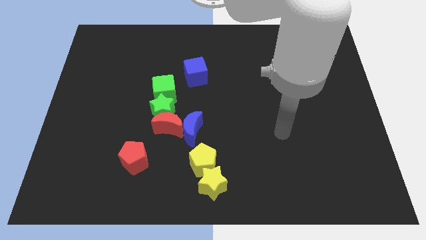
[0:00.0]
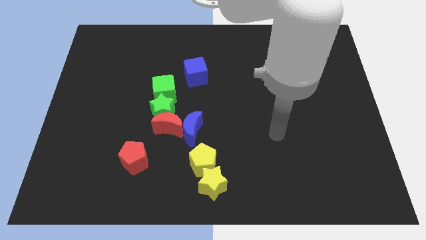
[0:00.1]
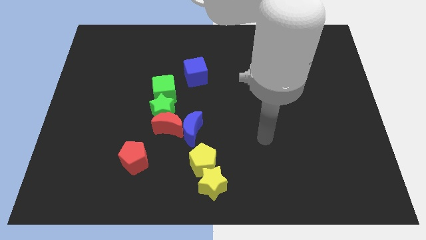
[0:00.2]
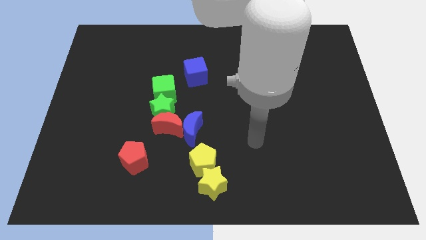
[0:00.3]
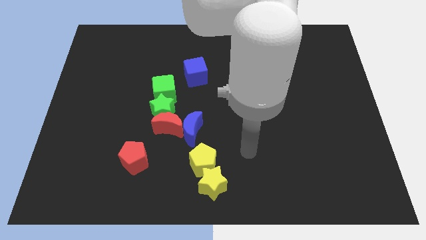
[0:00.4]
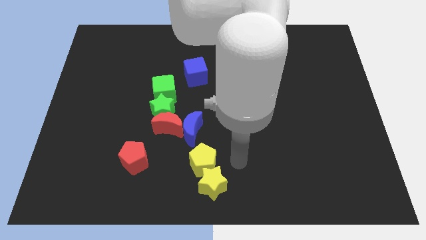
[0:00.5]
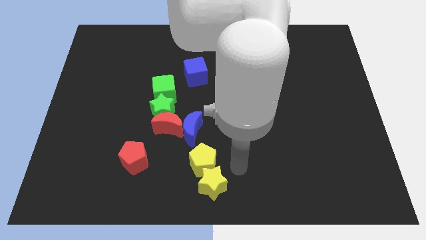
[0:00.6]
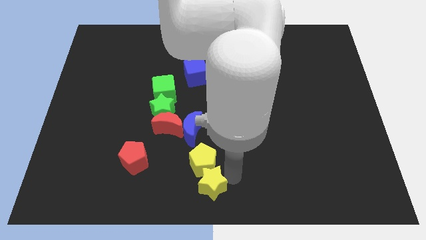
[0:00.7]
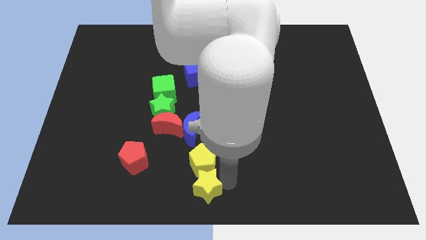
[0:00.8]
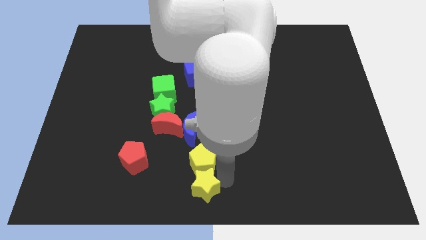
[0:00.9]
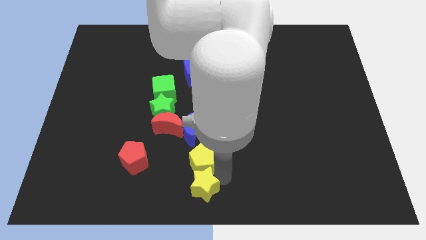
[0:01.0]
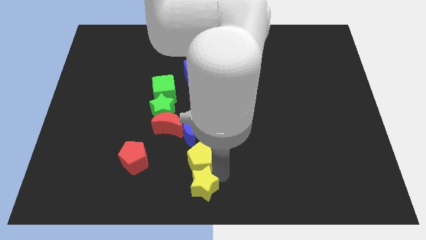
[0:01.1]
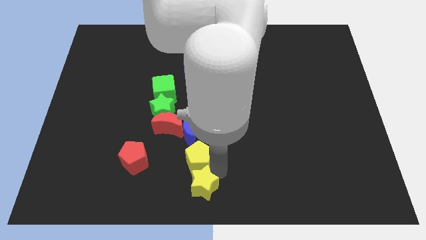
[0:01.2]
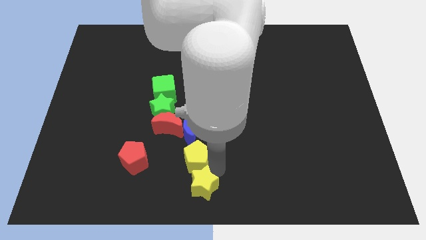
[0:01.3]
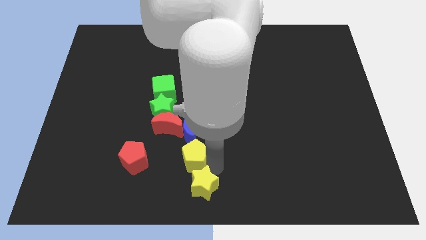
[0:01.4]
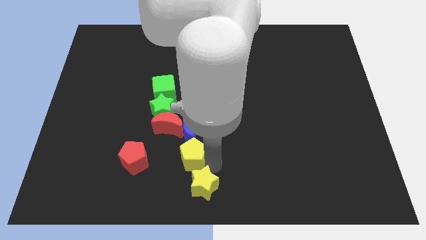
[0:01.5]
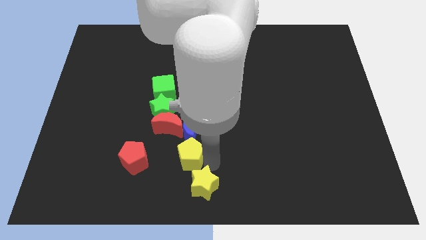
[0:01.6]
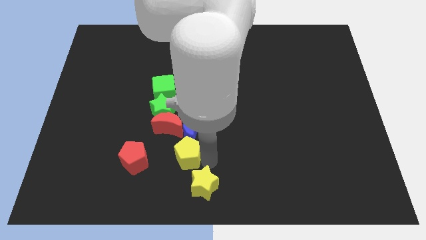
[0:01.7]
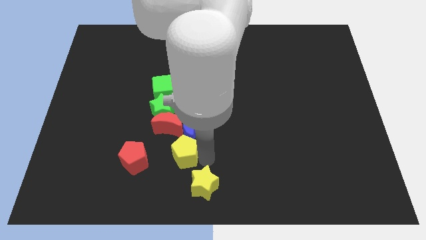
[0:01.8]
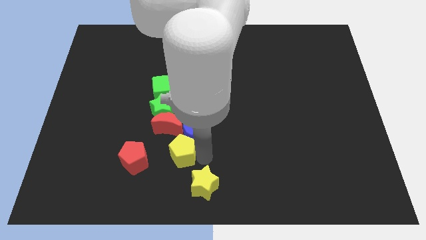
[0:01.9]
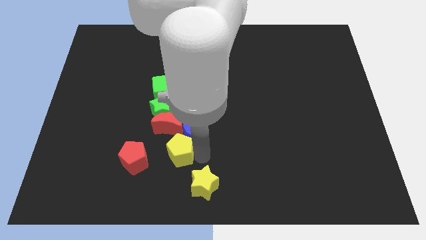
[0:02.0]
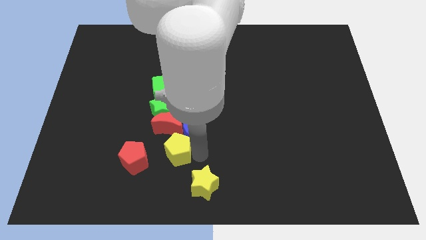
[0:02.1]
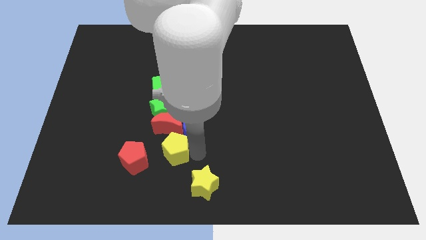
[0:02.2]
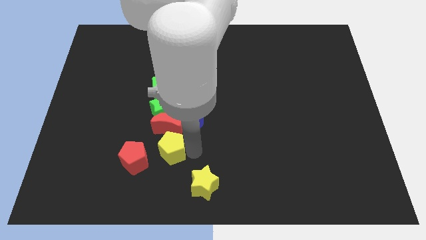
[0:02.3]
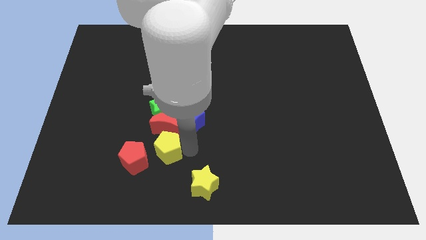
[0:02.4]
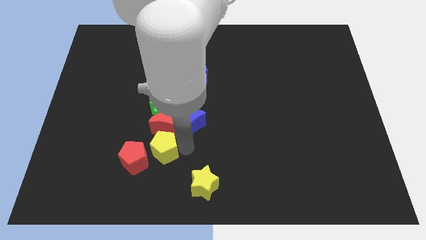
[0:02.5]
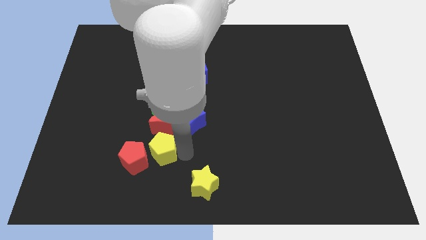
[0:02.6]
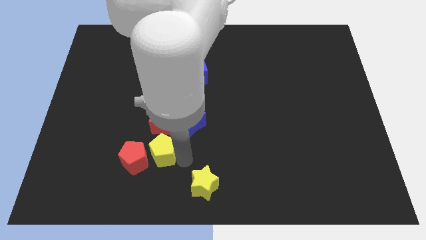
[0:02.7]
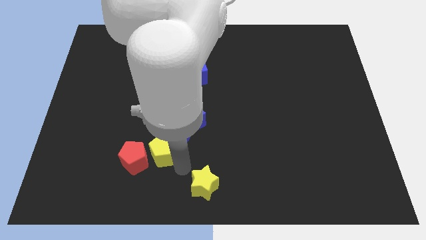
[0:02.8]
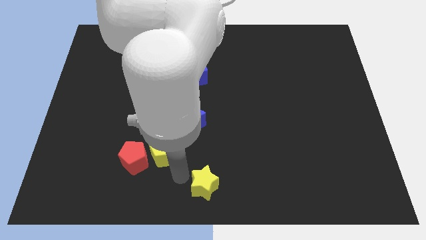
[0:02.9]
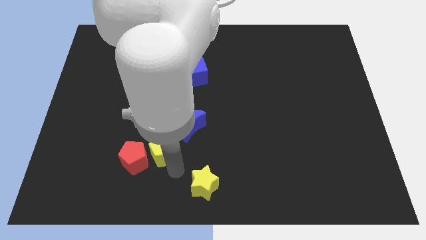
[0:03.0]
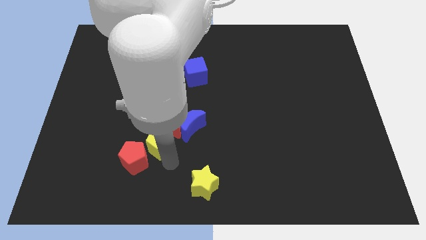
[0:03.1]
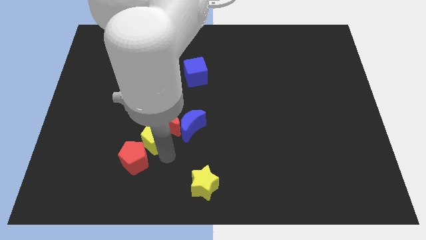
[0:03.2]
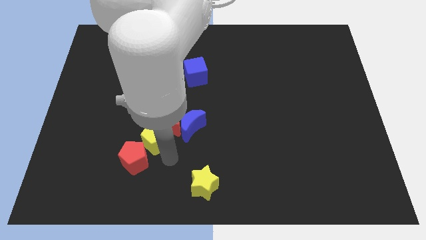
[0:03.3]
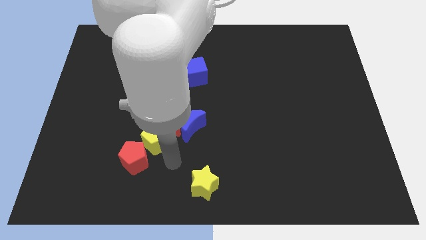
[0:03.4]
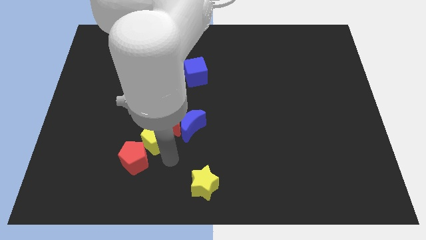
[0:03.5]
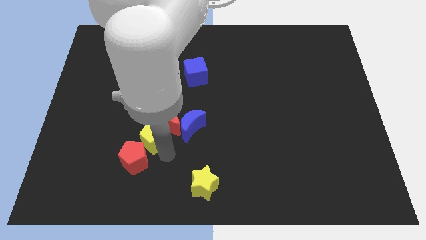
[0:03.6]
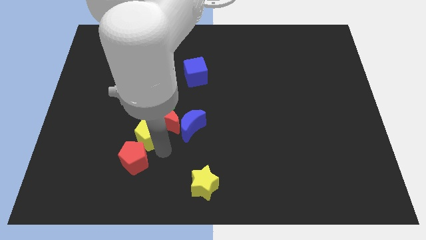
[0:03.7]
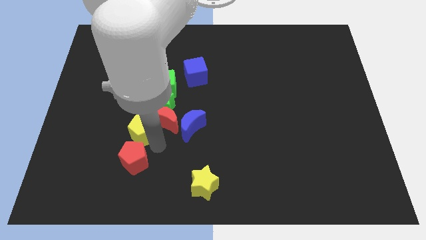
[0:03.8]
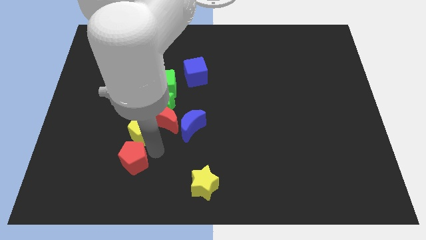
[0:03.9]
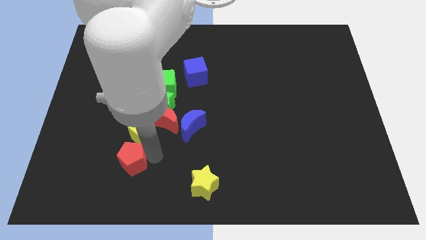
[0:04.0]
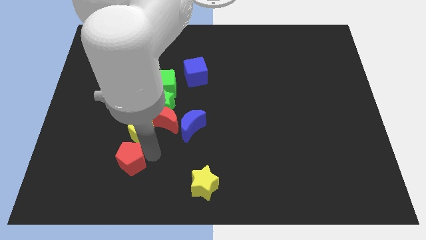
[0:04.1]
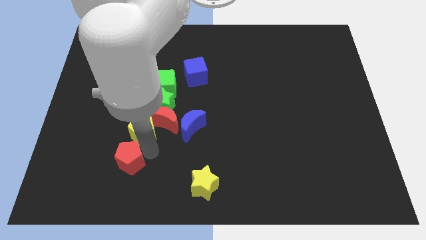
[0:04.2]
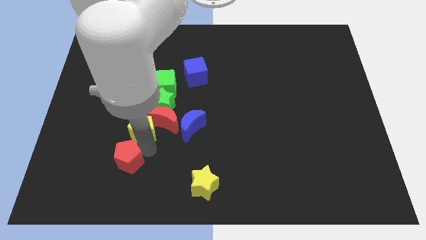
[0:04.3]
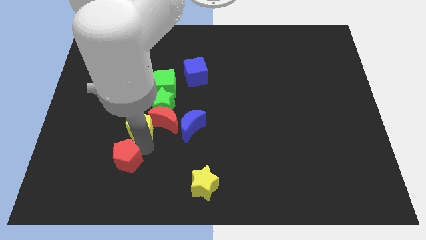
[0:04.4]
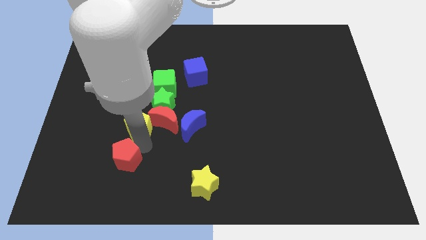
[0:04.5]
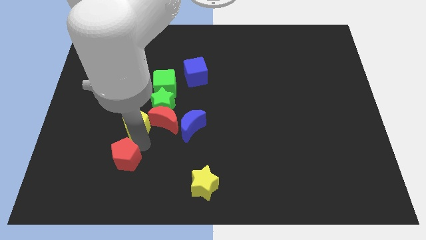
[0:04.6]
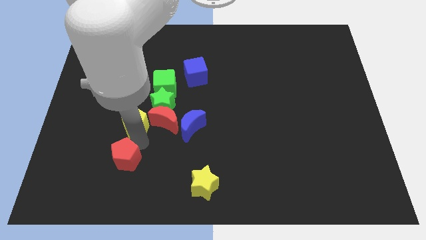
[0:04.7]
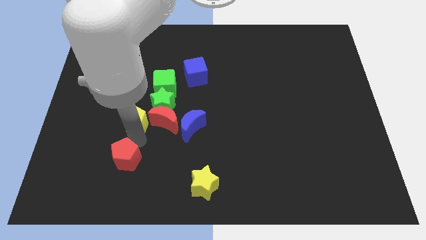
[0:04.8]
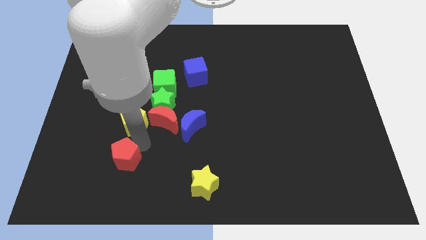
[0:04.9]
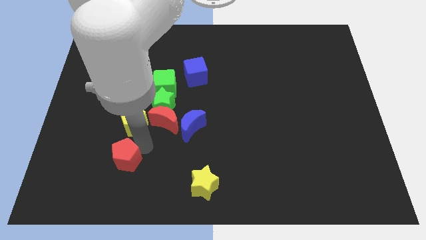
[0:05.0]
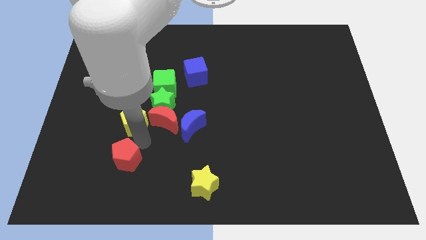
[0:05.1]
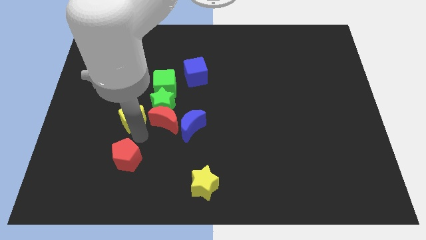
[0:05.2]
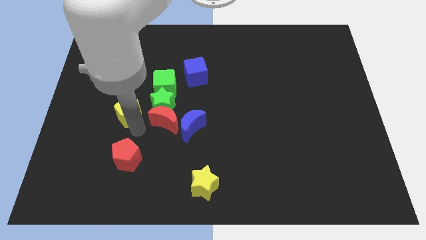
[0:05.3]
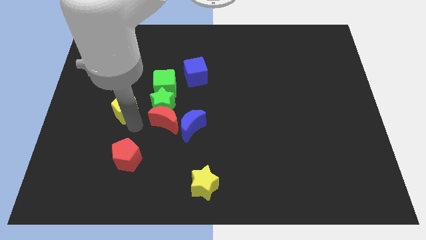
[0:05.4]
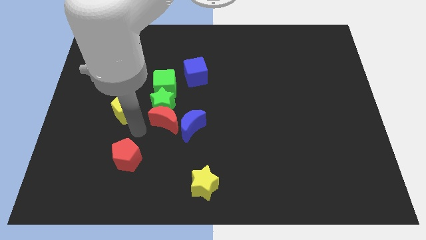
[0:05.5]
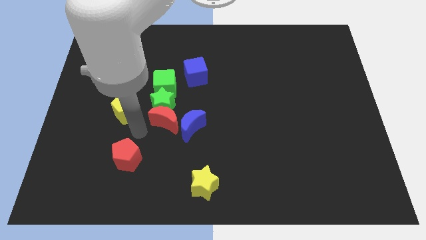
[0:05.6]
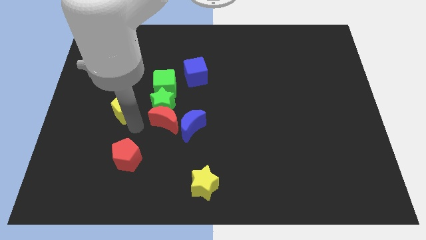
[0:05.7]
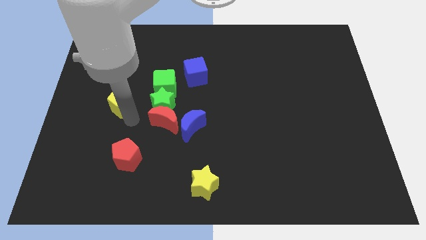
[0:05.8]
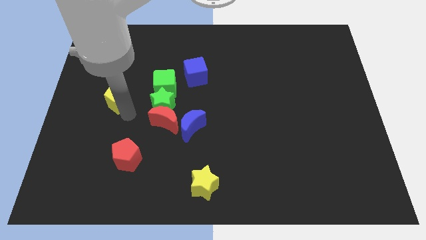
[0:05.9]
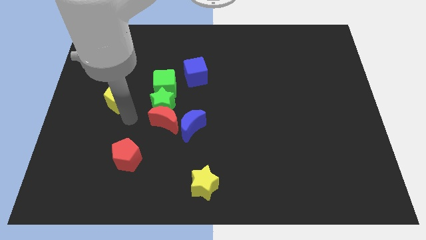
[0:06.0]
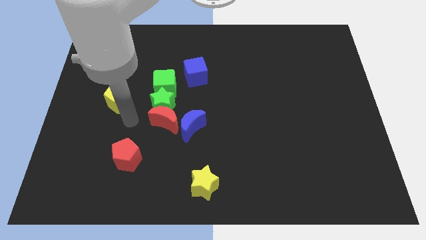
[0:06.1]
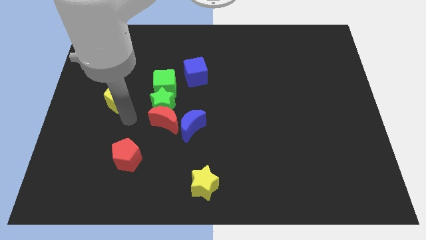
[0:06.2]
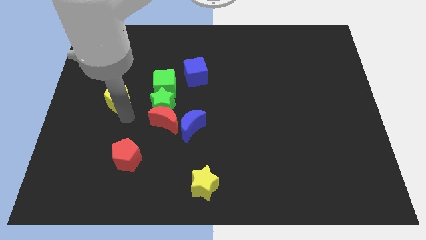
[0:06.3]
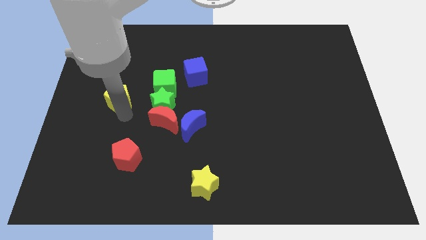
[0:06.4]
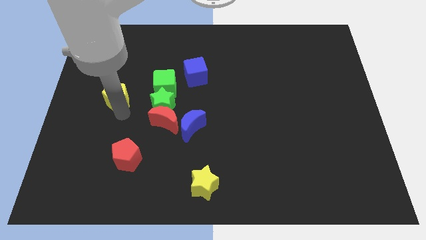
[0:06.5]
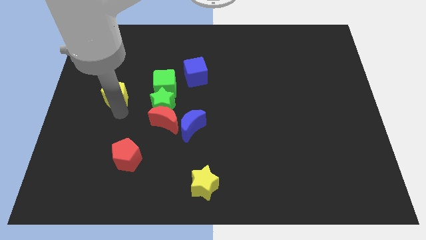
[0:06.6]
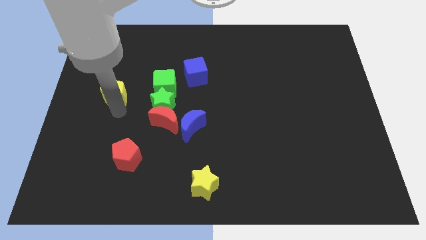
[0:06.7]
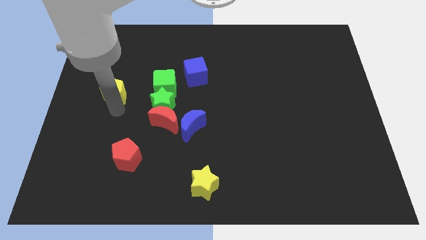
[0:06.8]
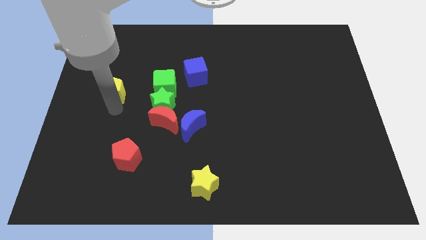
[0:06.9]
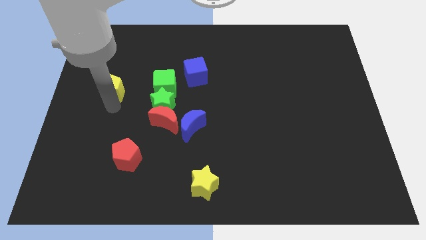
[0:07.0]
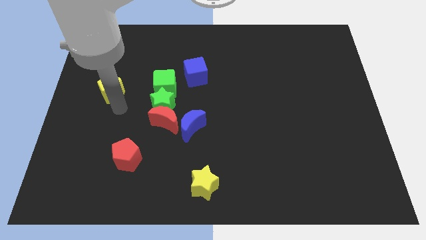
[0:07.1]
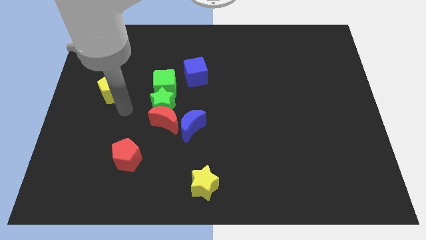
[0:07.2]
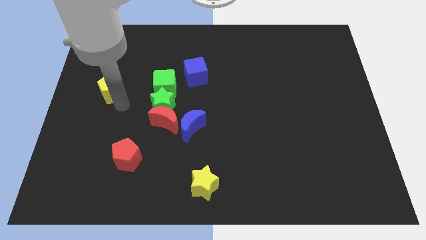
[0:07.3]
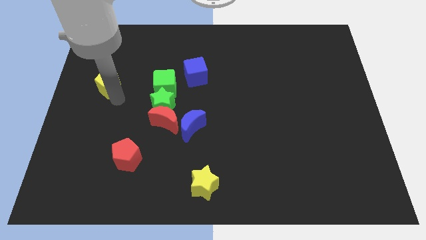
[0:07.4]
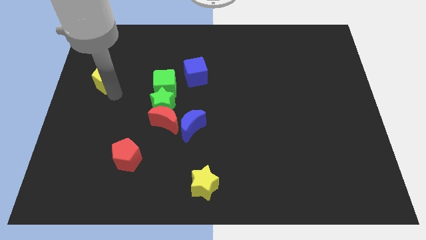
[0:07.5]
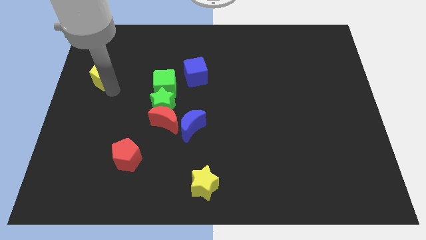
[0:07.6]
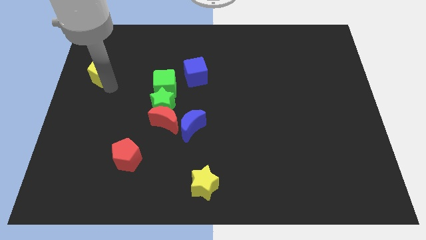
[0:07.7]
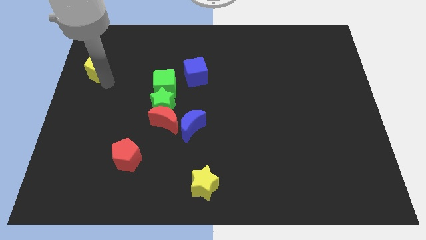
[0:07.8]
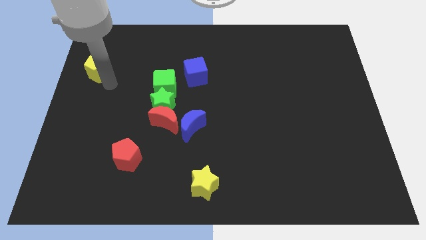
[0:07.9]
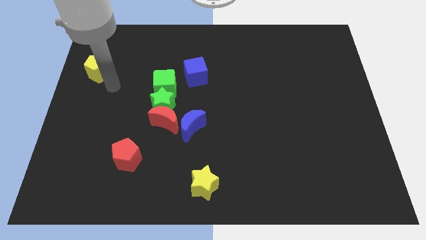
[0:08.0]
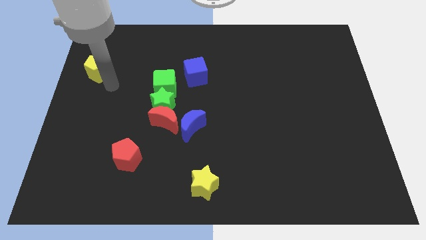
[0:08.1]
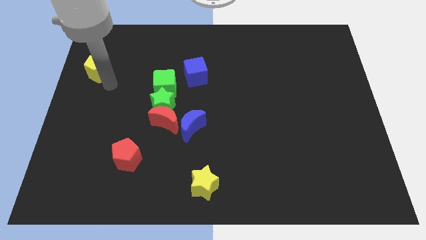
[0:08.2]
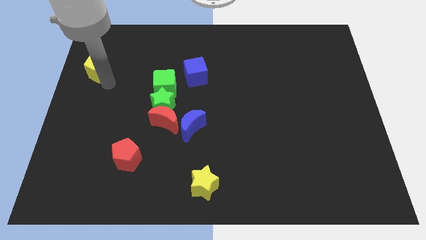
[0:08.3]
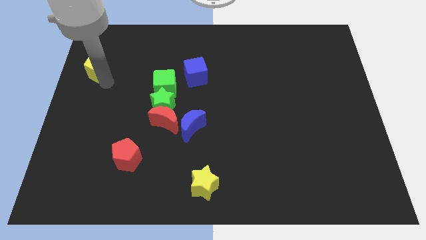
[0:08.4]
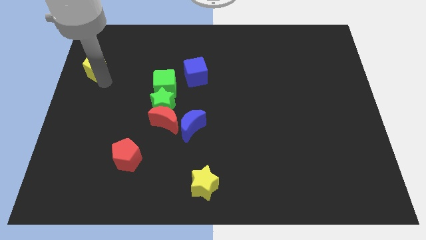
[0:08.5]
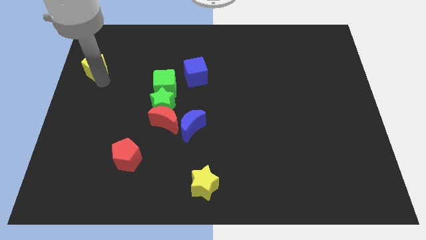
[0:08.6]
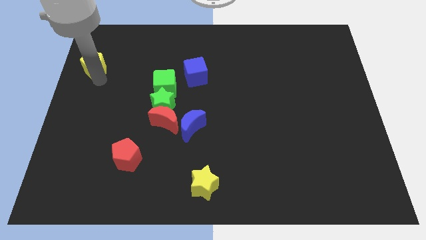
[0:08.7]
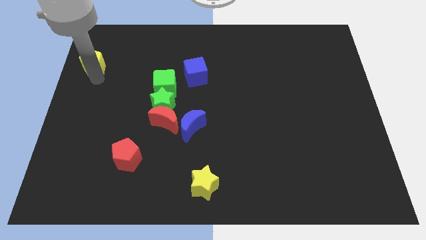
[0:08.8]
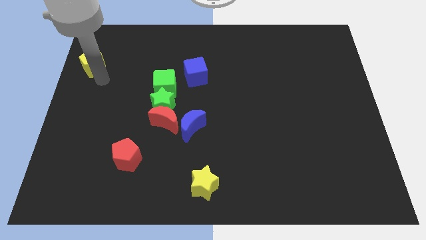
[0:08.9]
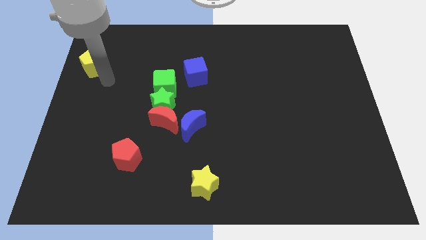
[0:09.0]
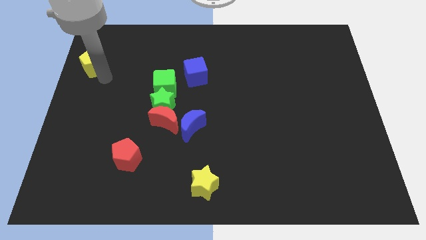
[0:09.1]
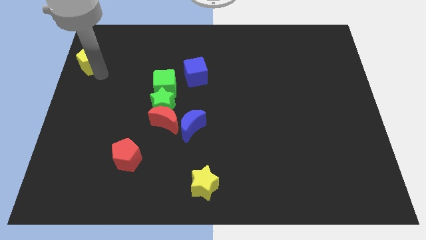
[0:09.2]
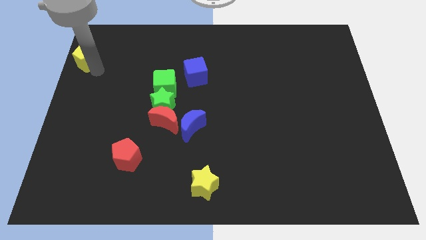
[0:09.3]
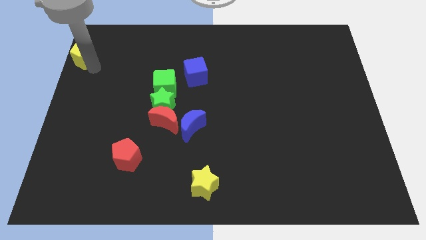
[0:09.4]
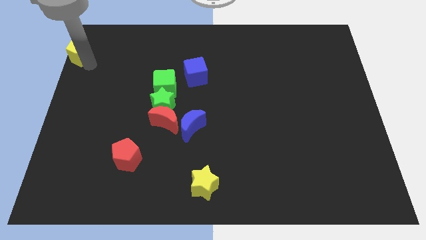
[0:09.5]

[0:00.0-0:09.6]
push the yellow pentagon to the top left of the board
